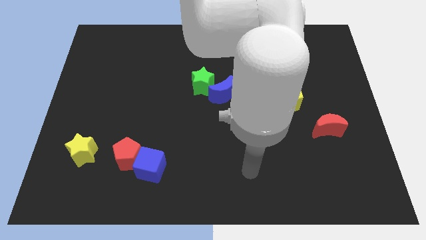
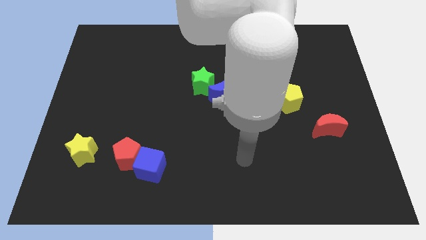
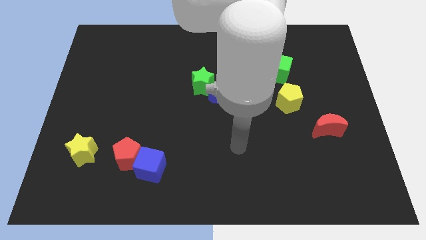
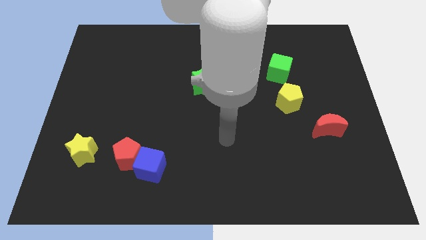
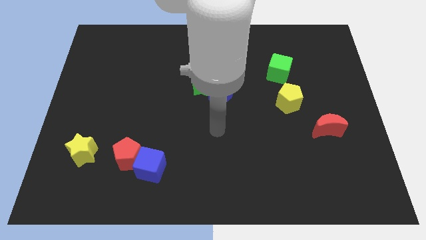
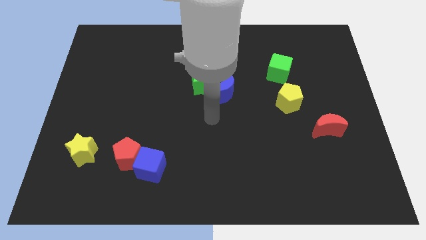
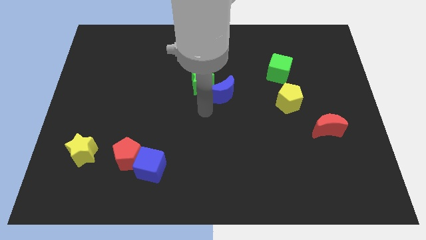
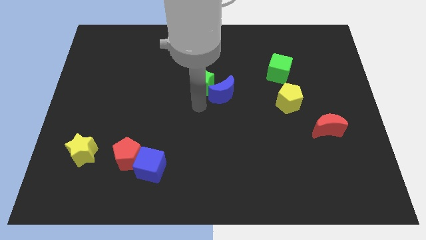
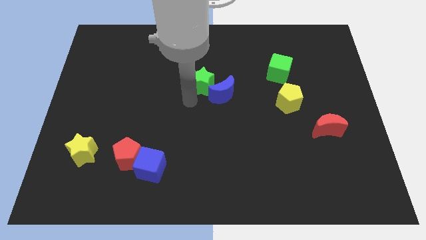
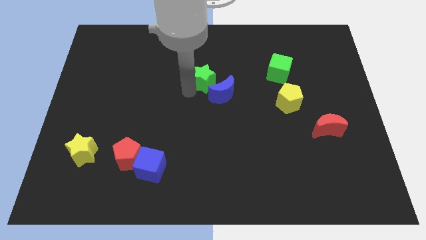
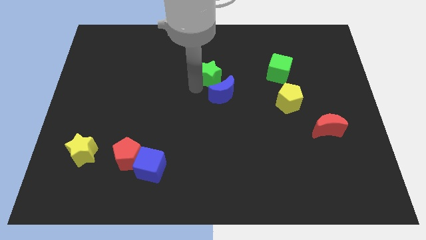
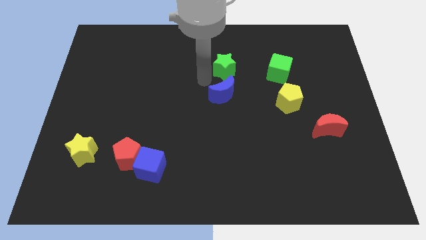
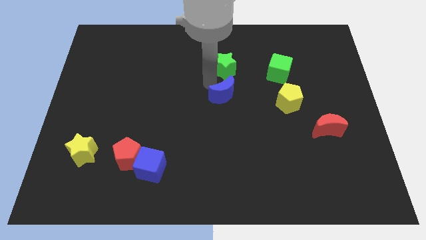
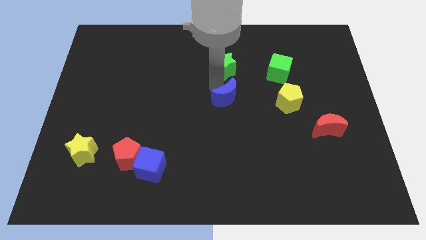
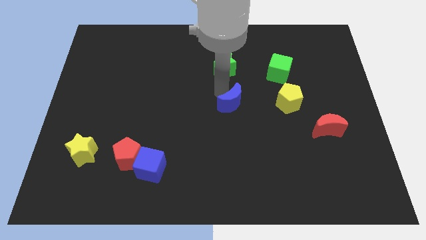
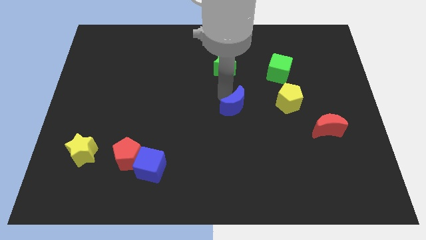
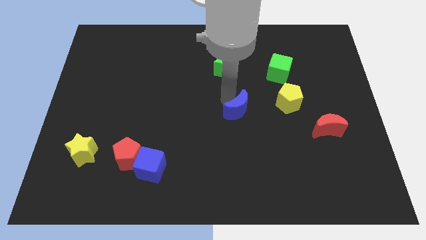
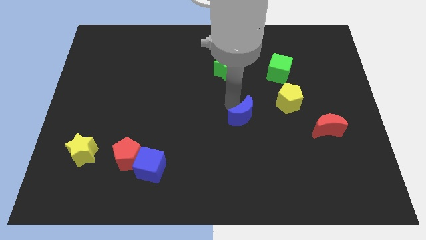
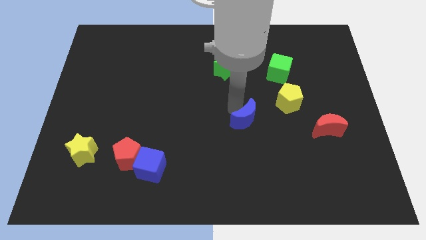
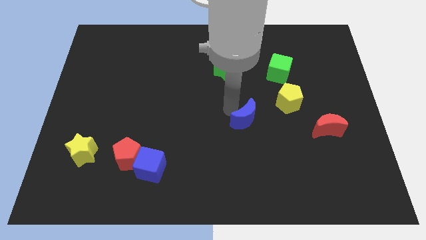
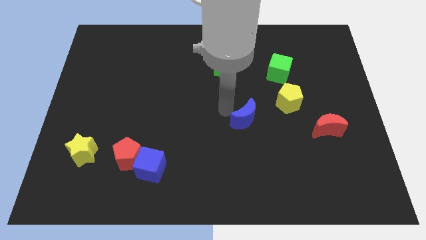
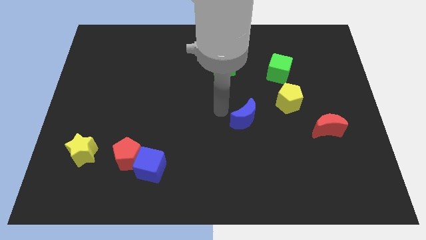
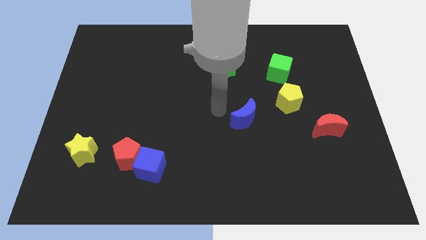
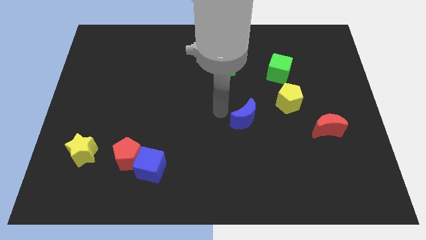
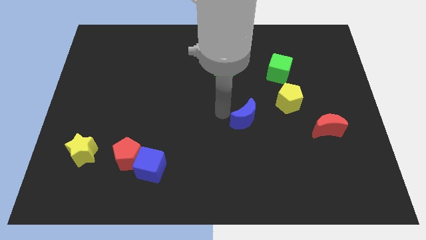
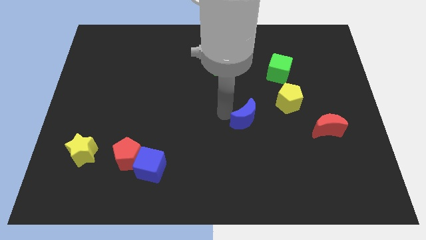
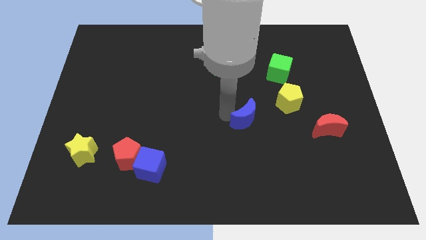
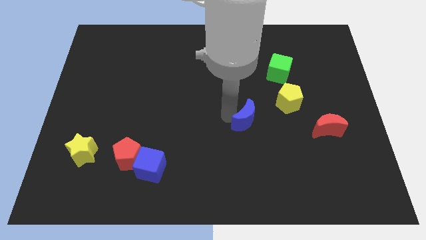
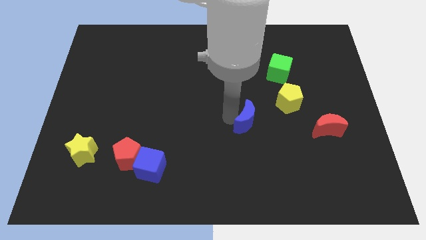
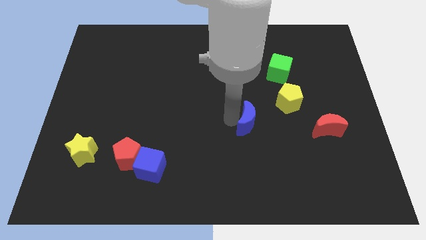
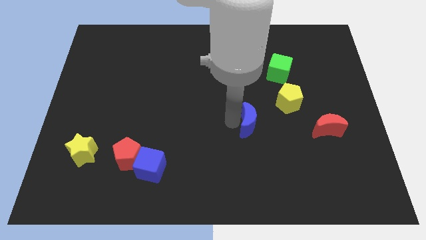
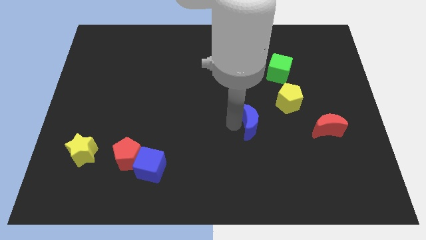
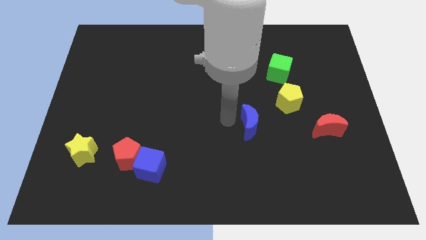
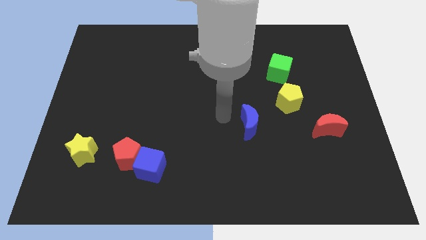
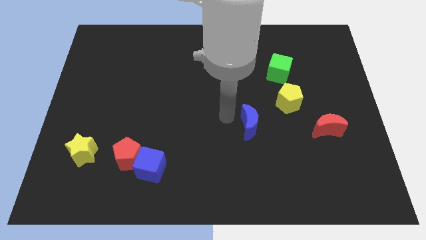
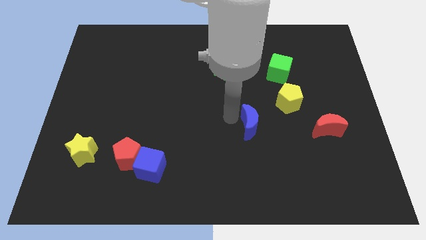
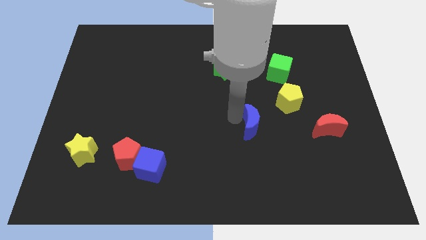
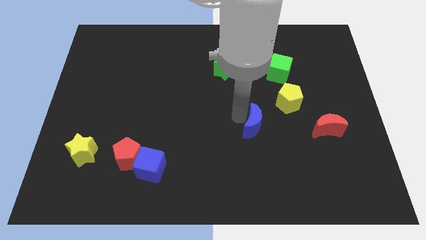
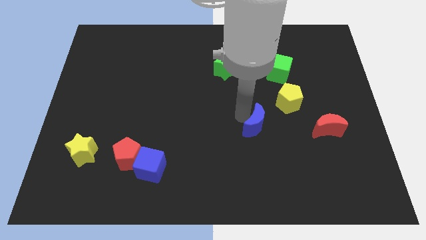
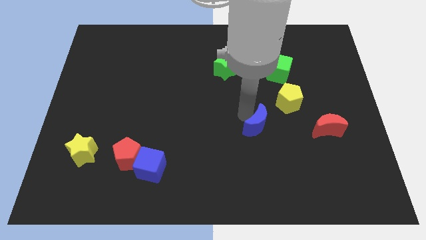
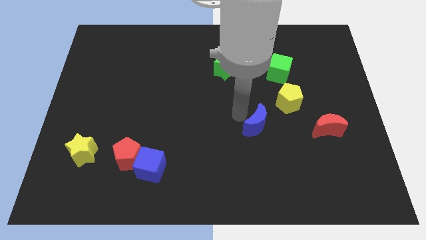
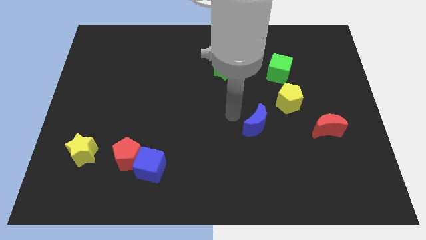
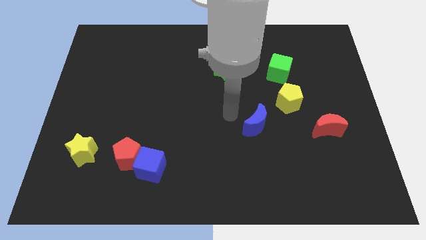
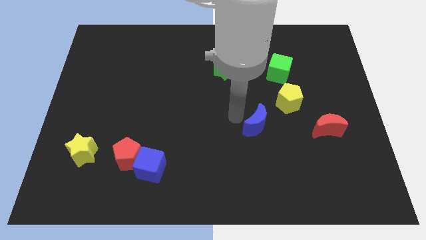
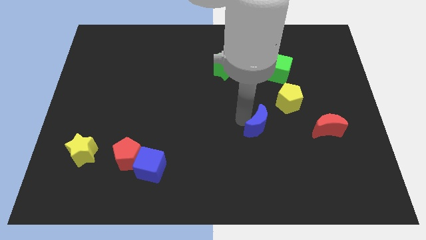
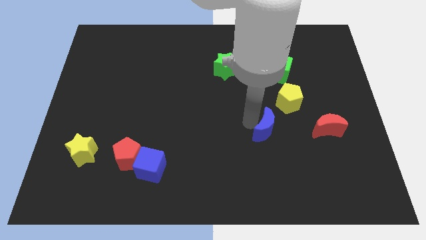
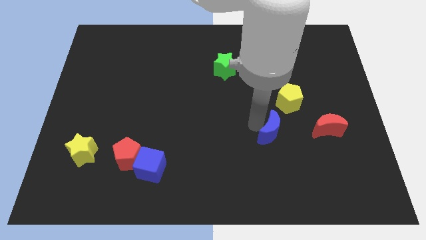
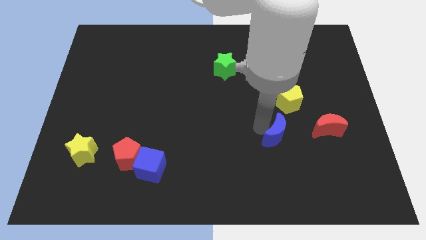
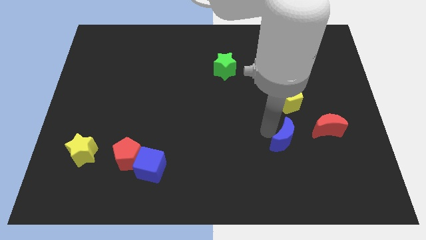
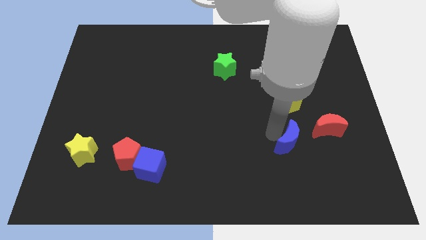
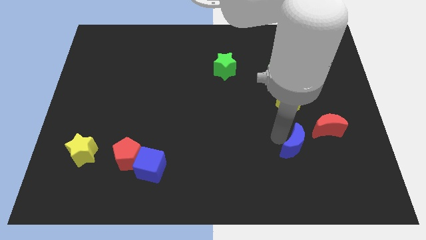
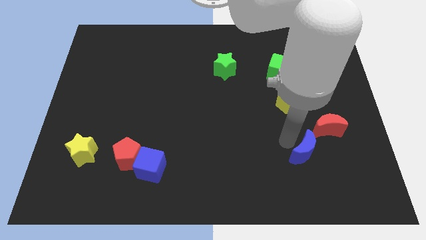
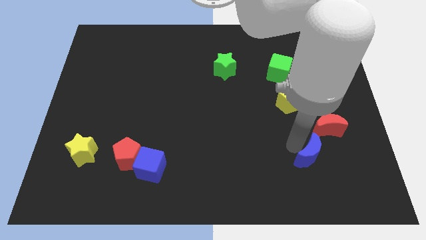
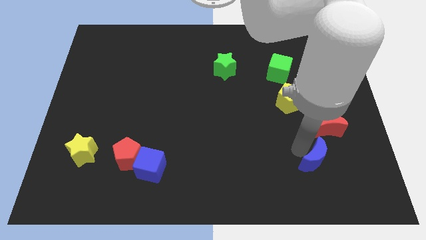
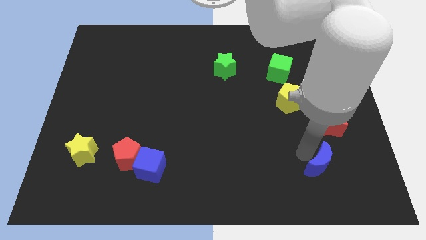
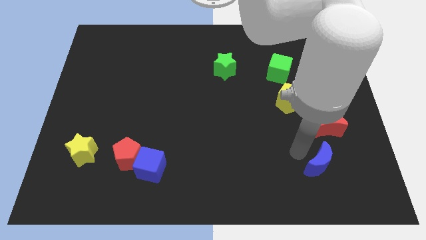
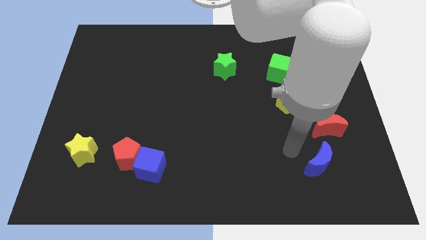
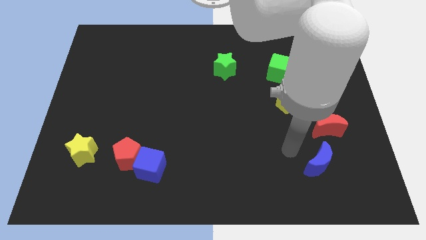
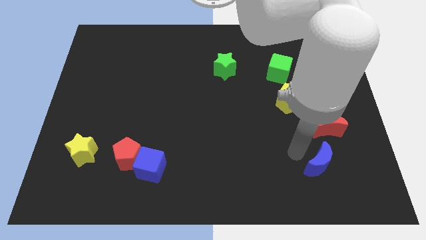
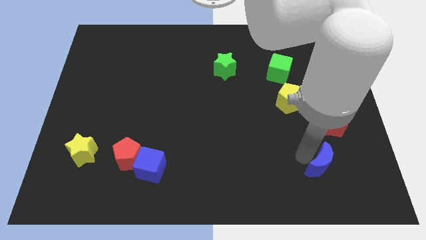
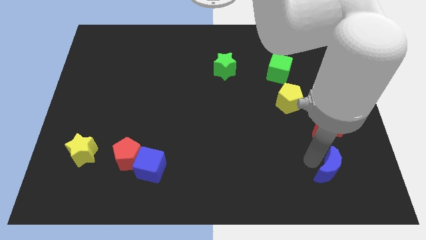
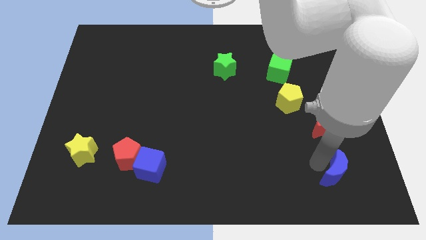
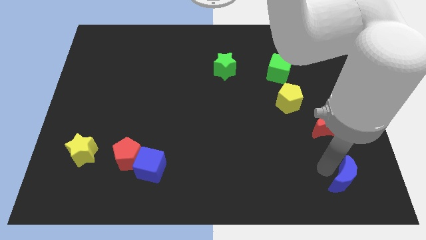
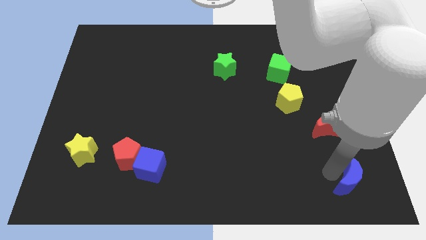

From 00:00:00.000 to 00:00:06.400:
slide the blue moon to the bottom right of the board
